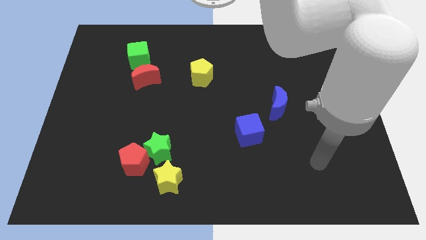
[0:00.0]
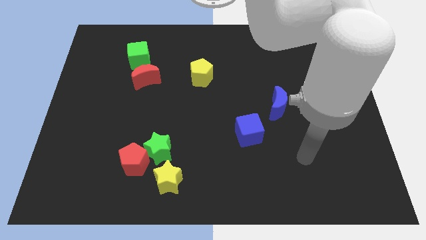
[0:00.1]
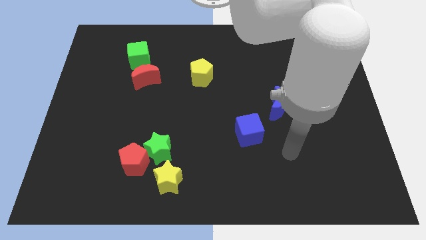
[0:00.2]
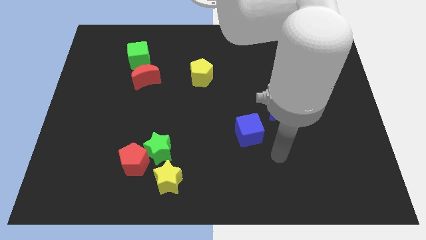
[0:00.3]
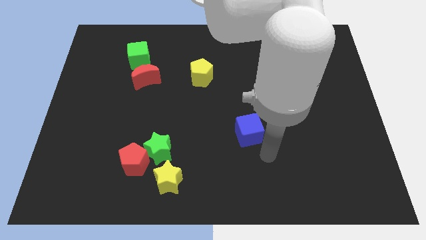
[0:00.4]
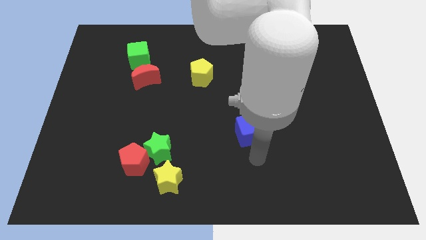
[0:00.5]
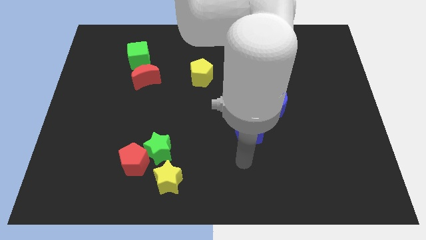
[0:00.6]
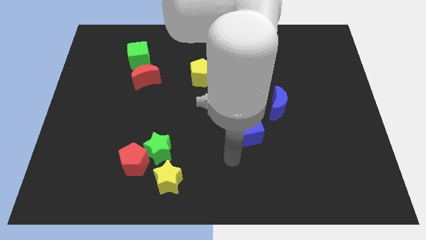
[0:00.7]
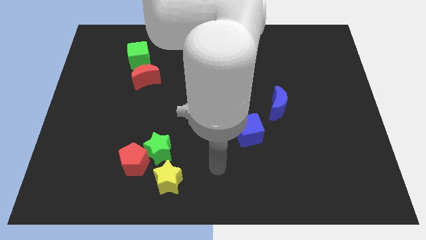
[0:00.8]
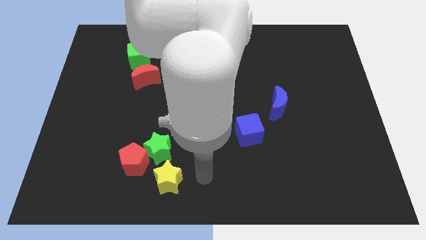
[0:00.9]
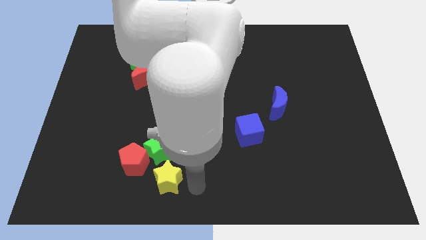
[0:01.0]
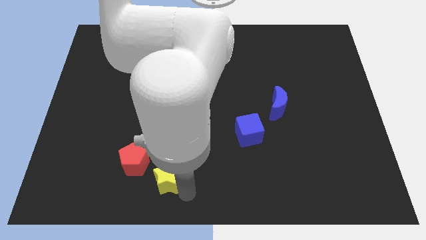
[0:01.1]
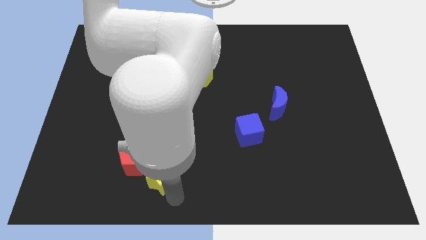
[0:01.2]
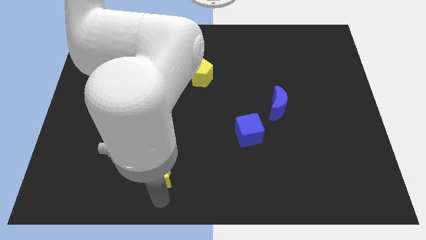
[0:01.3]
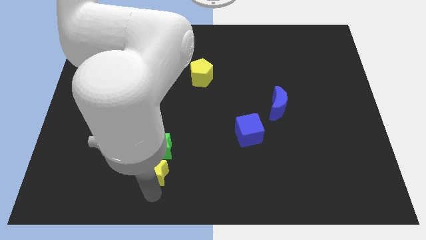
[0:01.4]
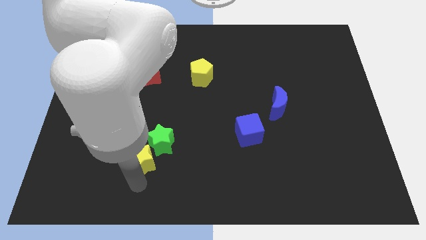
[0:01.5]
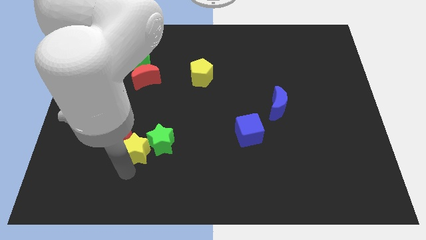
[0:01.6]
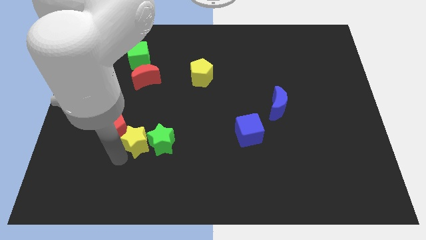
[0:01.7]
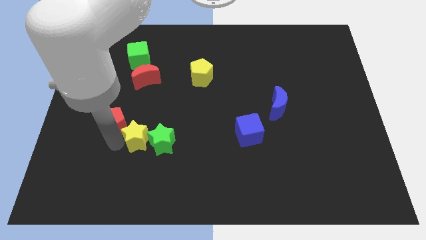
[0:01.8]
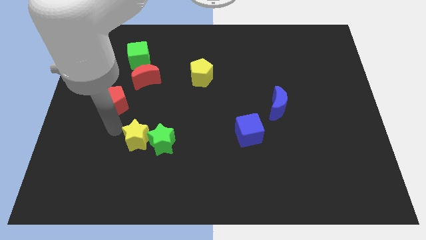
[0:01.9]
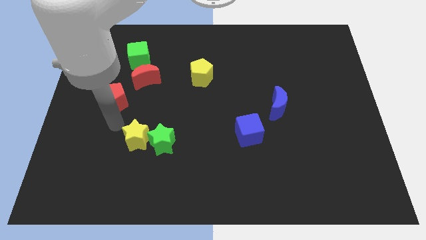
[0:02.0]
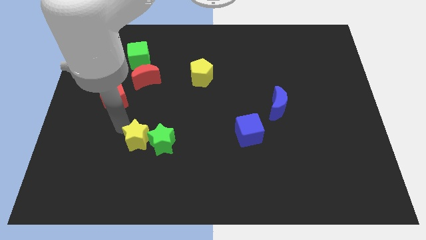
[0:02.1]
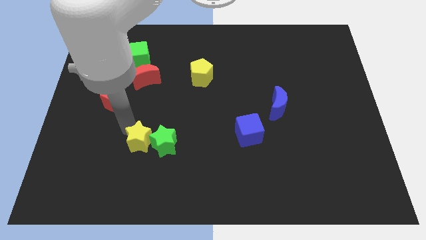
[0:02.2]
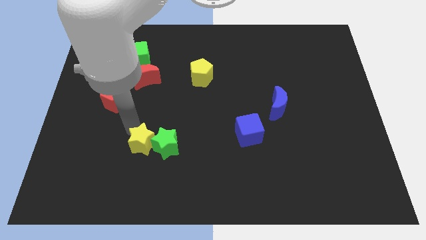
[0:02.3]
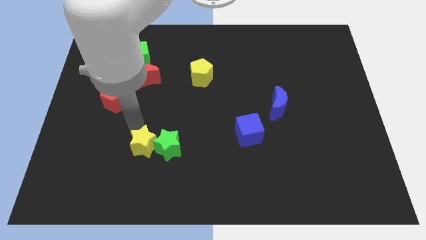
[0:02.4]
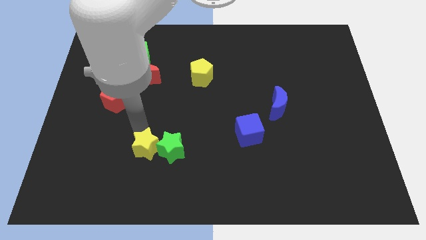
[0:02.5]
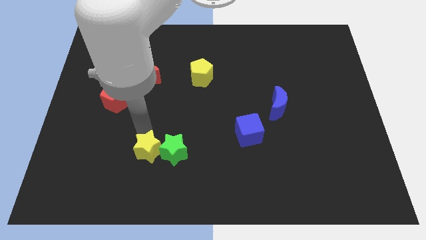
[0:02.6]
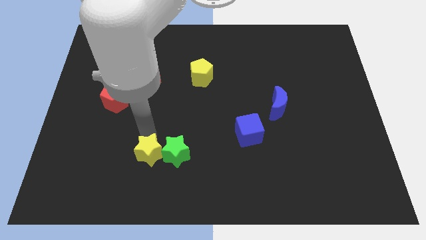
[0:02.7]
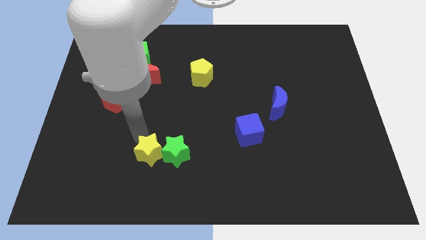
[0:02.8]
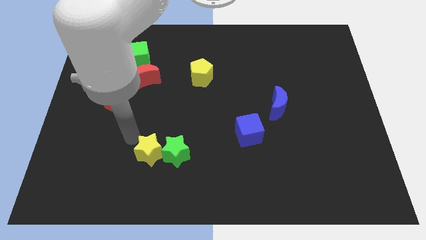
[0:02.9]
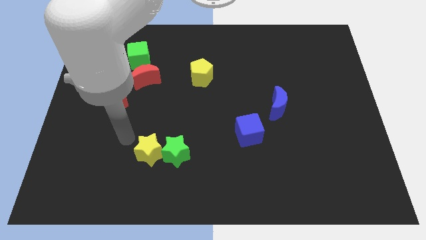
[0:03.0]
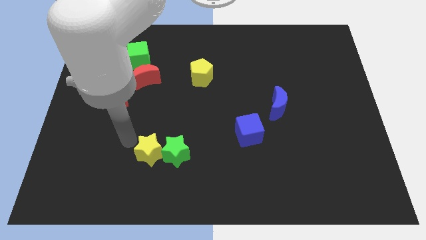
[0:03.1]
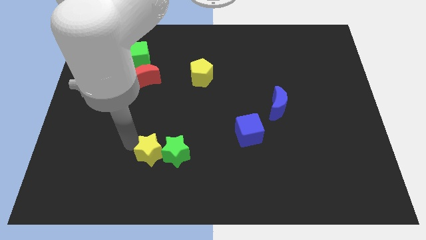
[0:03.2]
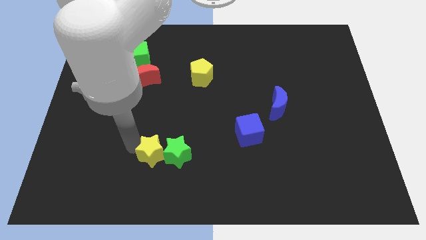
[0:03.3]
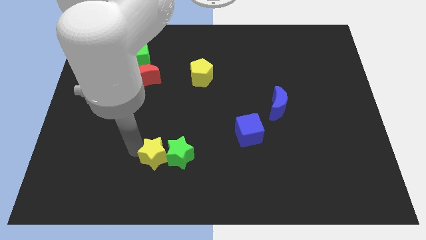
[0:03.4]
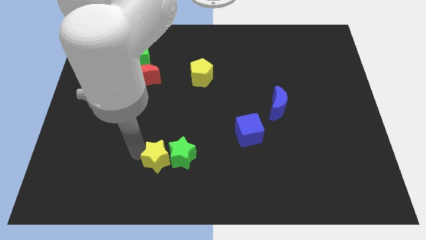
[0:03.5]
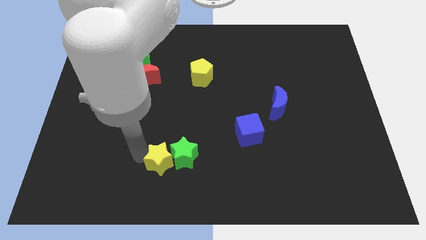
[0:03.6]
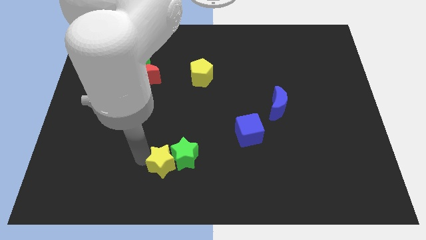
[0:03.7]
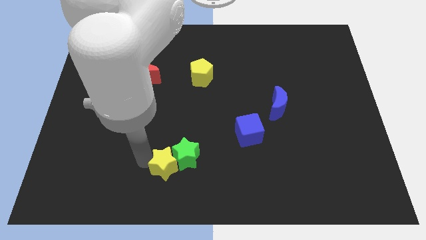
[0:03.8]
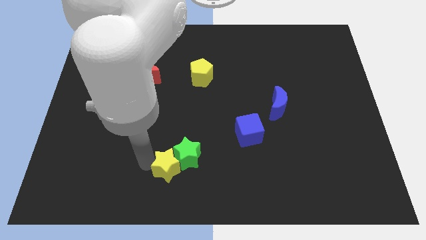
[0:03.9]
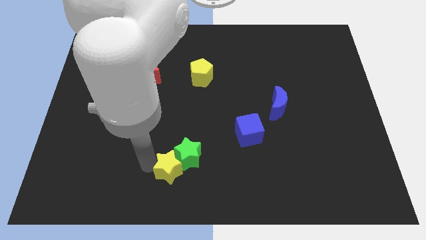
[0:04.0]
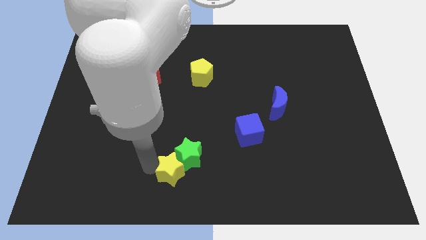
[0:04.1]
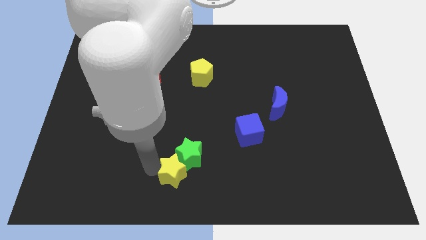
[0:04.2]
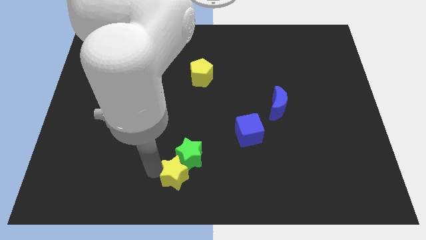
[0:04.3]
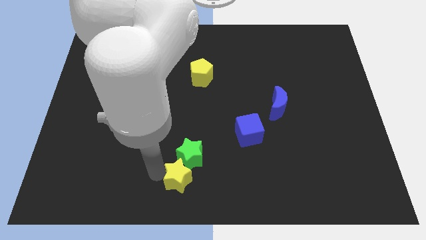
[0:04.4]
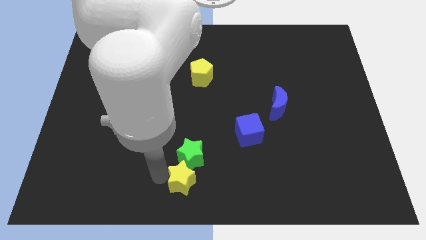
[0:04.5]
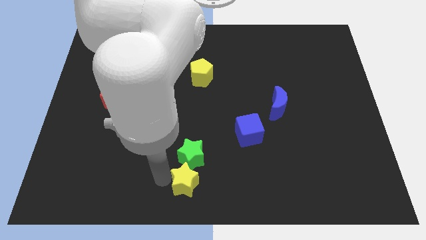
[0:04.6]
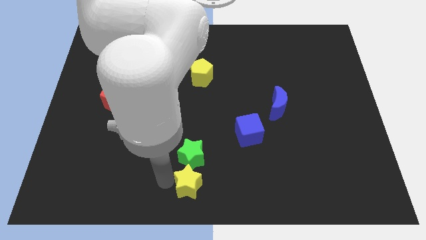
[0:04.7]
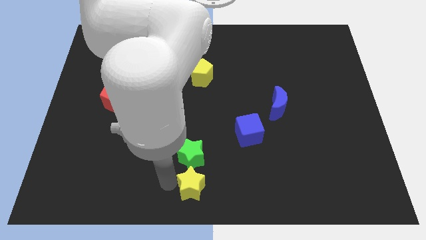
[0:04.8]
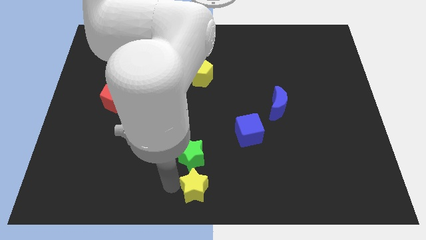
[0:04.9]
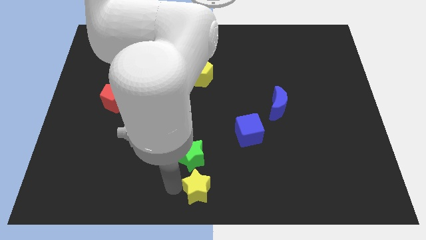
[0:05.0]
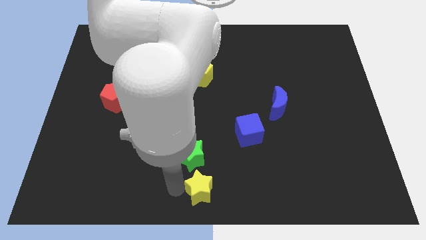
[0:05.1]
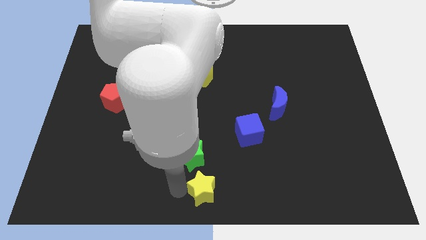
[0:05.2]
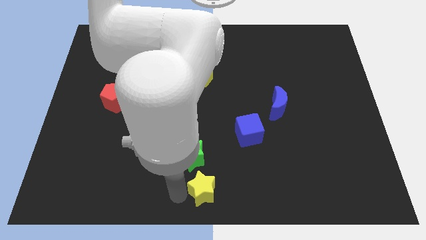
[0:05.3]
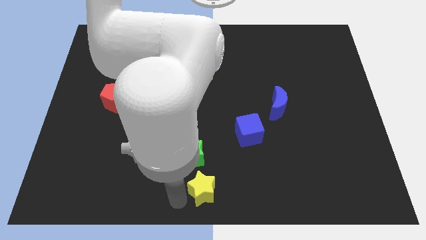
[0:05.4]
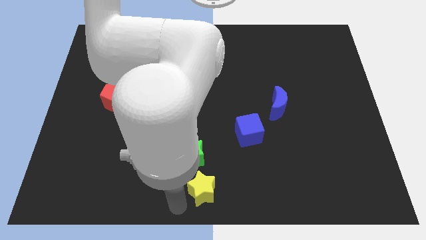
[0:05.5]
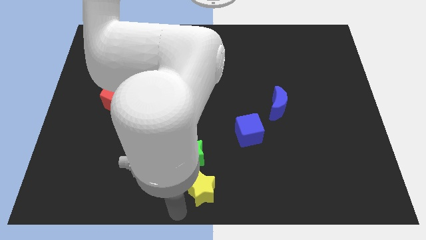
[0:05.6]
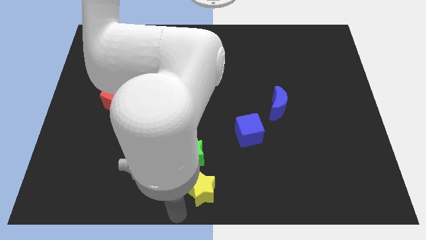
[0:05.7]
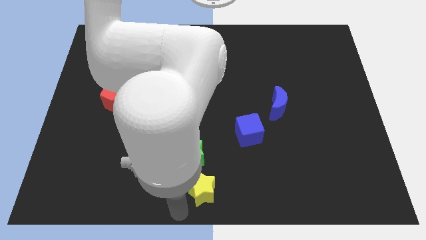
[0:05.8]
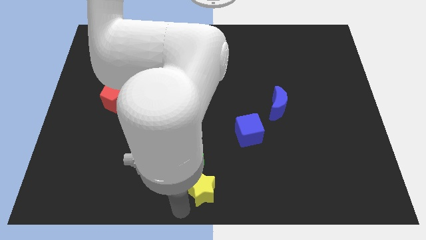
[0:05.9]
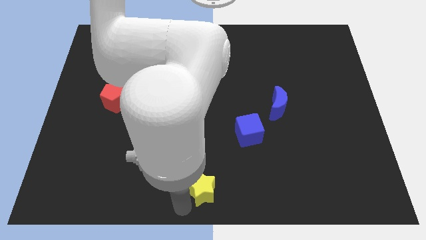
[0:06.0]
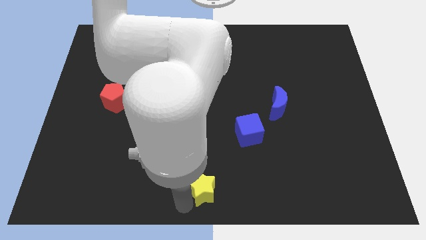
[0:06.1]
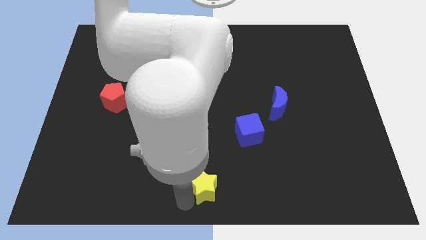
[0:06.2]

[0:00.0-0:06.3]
slide the yellow star to the right a bit

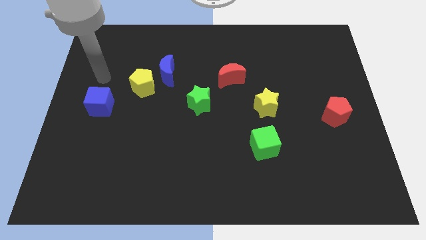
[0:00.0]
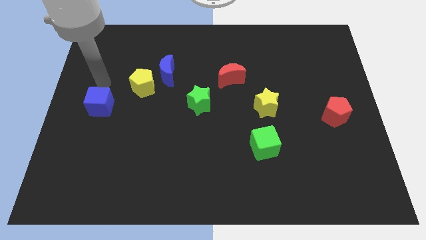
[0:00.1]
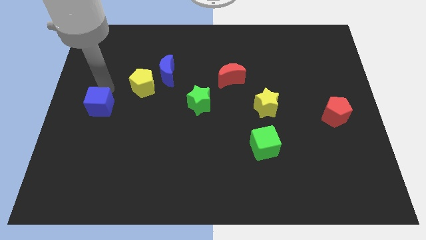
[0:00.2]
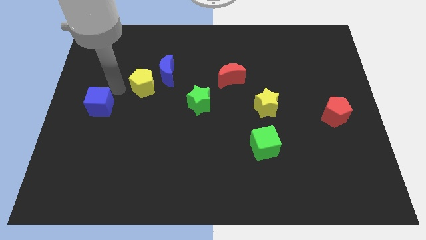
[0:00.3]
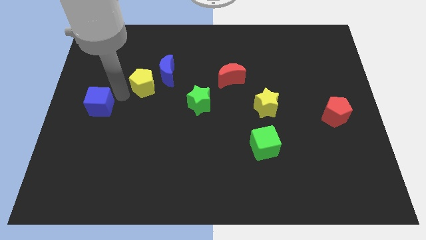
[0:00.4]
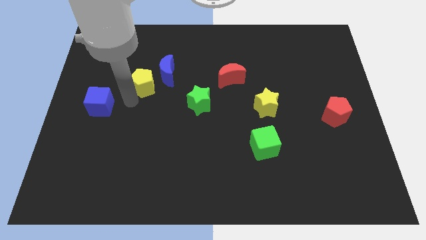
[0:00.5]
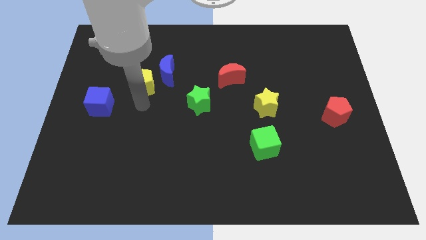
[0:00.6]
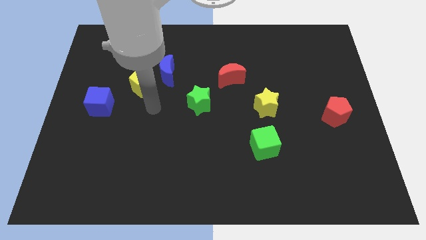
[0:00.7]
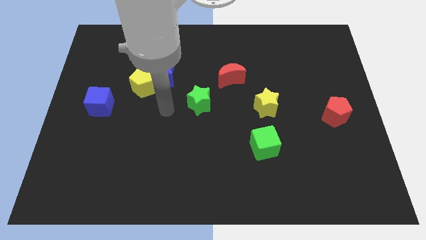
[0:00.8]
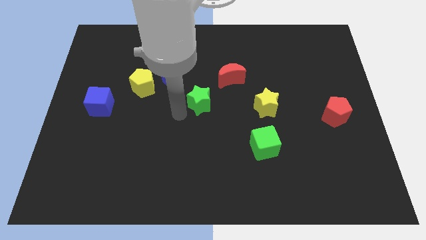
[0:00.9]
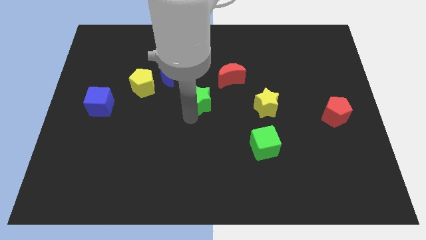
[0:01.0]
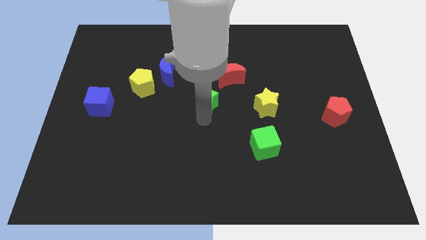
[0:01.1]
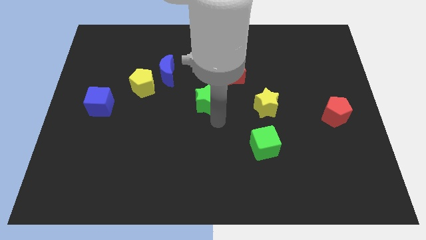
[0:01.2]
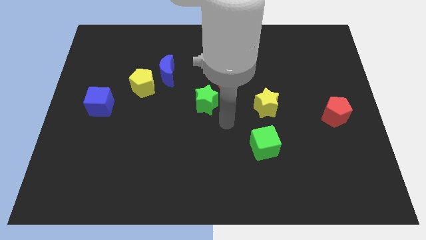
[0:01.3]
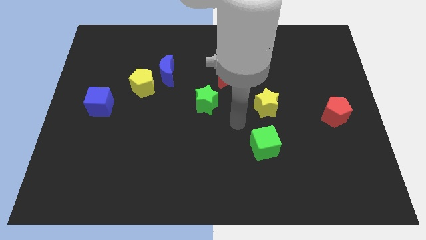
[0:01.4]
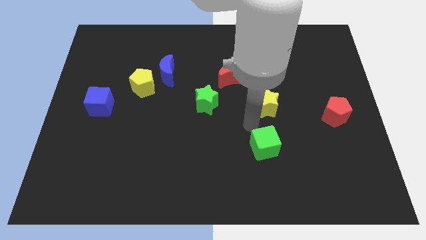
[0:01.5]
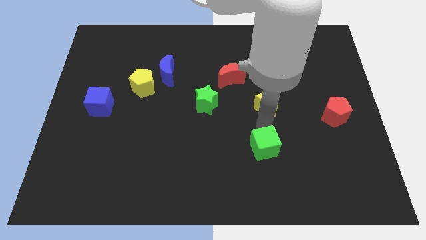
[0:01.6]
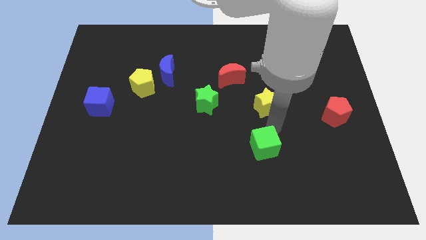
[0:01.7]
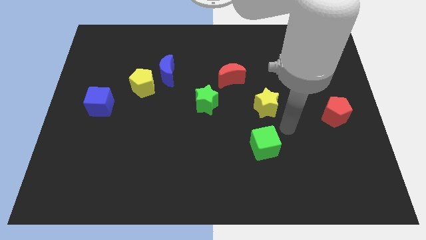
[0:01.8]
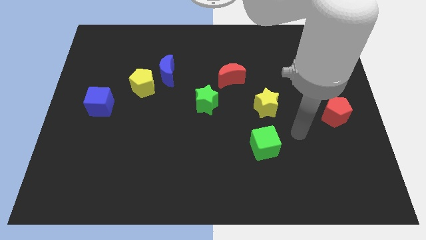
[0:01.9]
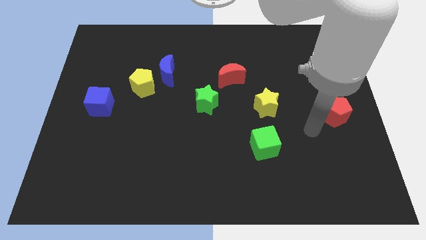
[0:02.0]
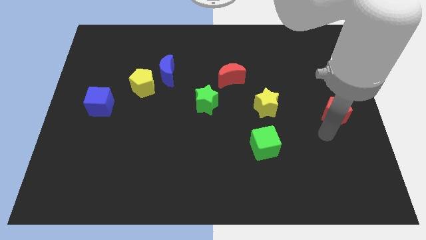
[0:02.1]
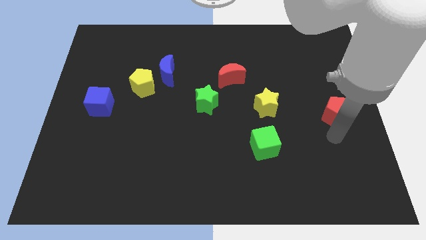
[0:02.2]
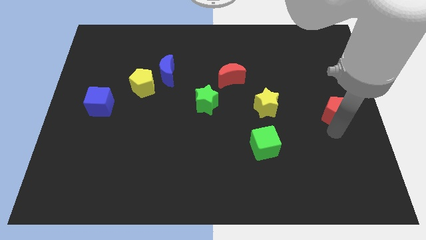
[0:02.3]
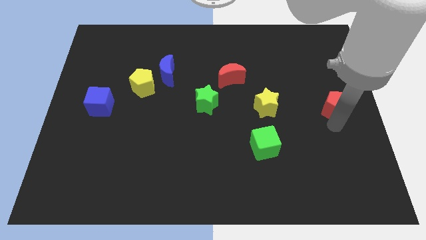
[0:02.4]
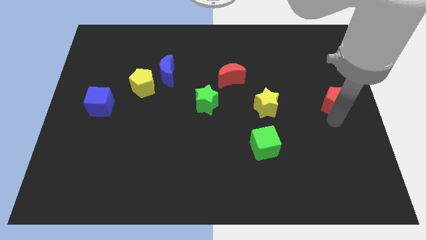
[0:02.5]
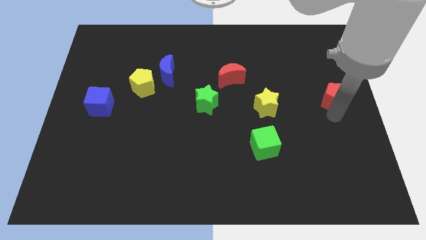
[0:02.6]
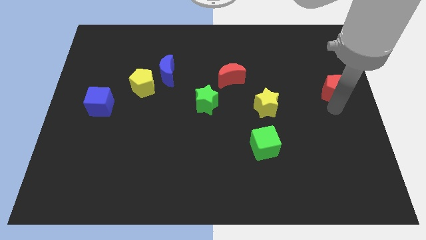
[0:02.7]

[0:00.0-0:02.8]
push the red pentagon a little up
